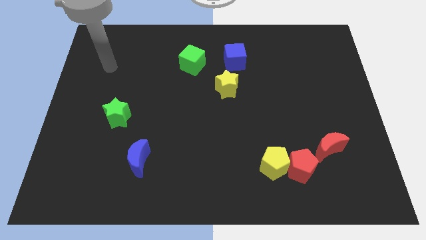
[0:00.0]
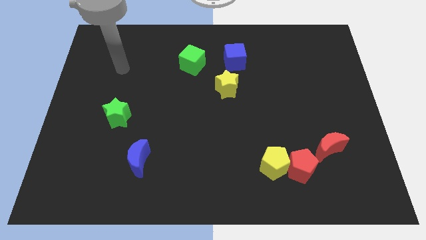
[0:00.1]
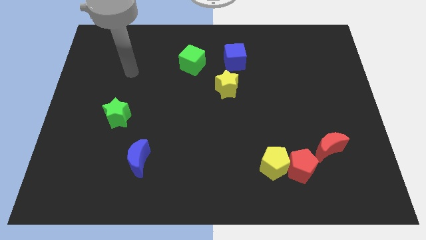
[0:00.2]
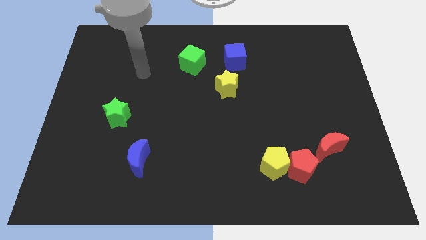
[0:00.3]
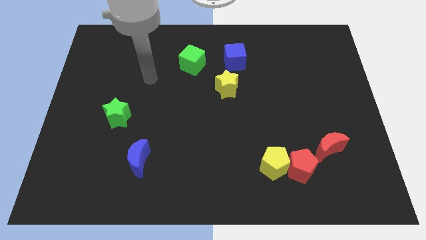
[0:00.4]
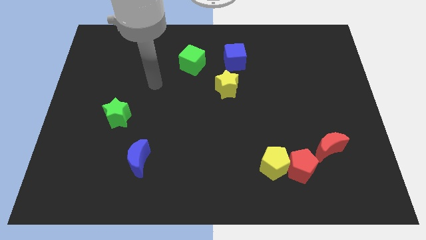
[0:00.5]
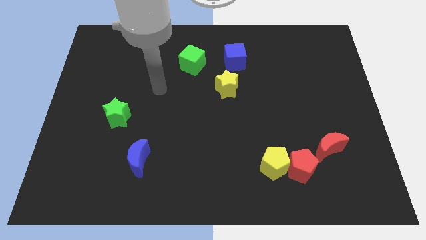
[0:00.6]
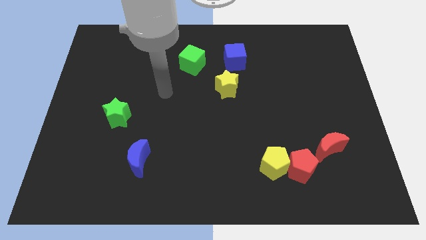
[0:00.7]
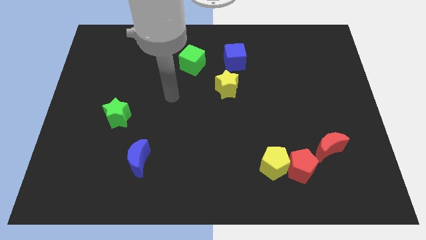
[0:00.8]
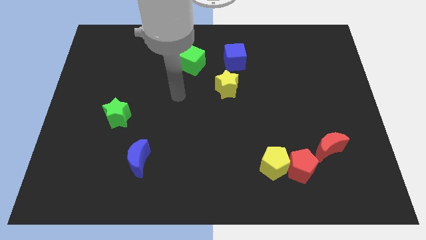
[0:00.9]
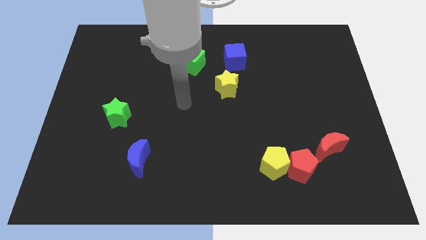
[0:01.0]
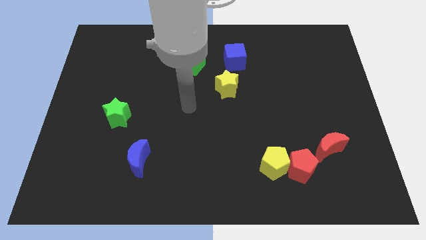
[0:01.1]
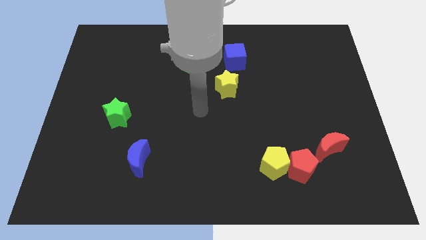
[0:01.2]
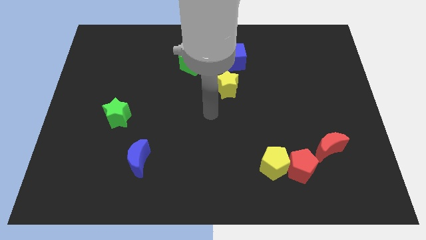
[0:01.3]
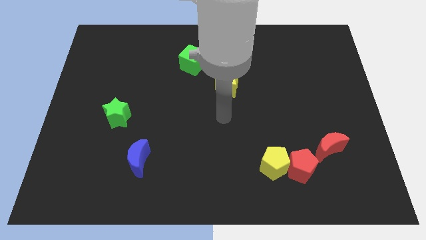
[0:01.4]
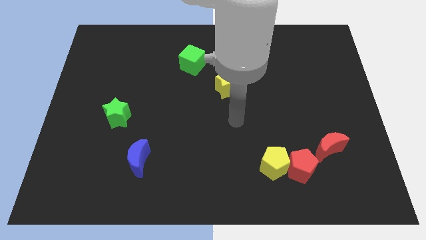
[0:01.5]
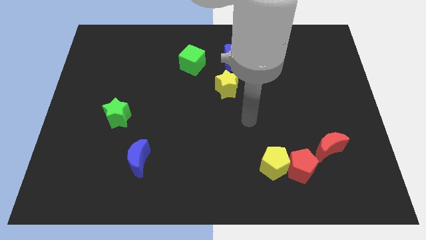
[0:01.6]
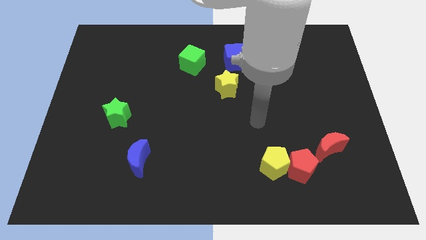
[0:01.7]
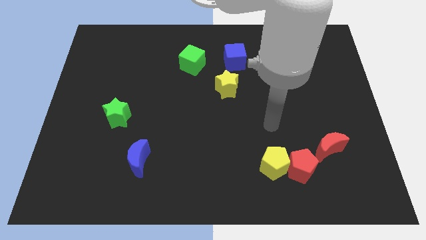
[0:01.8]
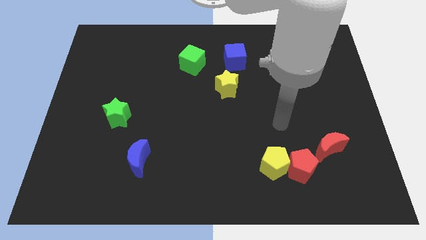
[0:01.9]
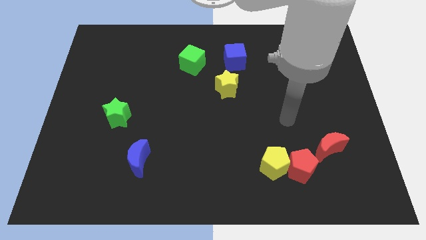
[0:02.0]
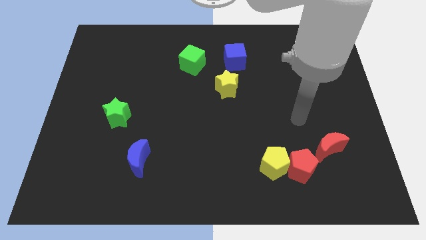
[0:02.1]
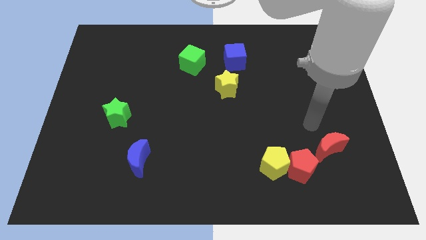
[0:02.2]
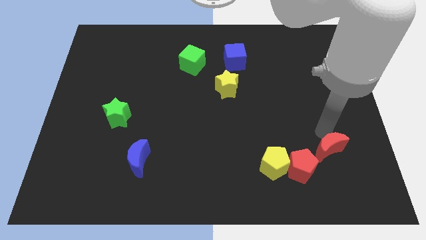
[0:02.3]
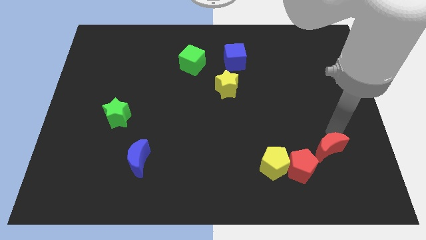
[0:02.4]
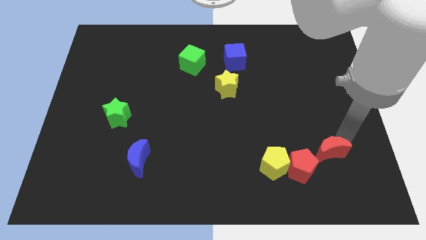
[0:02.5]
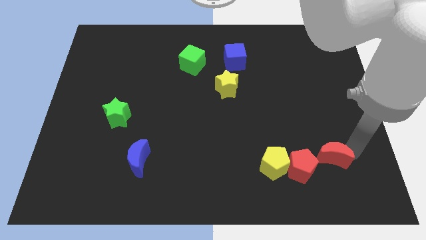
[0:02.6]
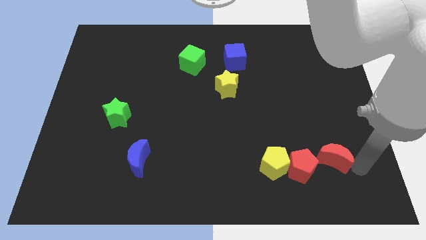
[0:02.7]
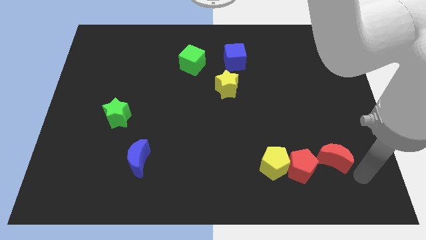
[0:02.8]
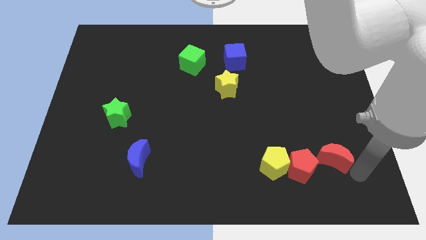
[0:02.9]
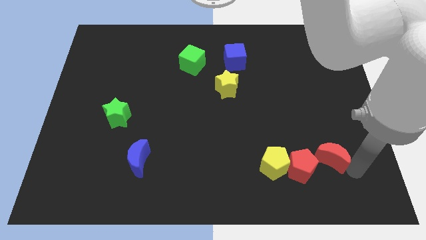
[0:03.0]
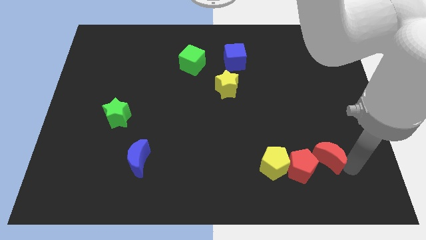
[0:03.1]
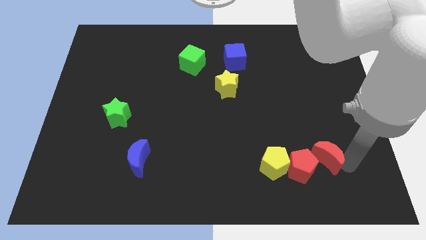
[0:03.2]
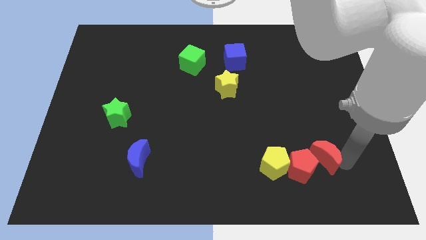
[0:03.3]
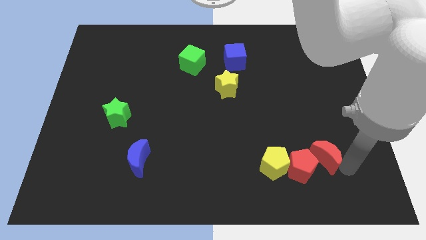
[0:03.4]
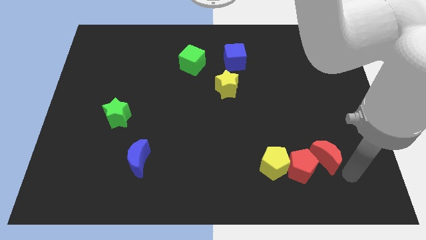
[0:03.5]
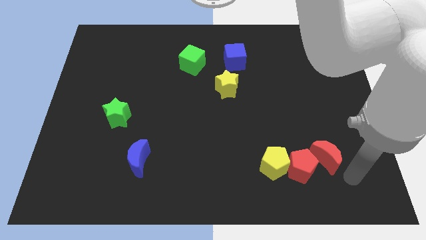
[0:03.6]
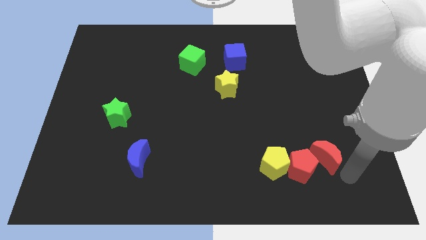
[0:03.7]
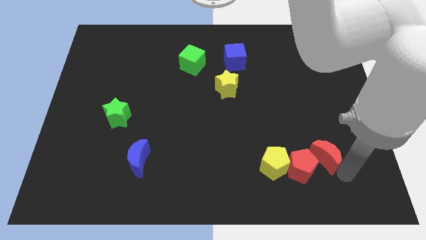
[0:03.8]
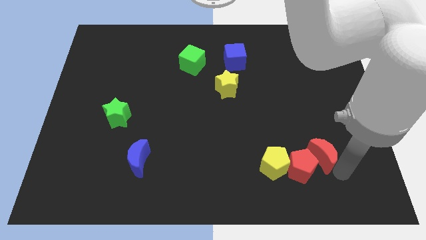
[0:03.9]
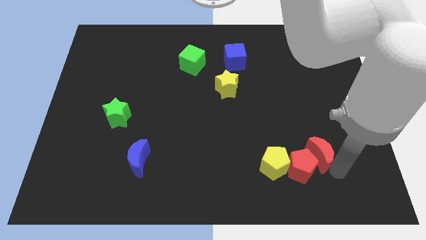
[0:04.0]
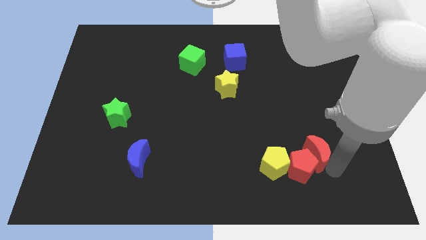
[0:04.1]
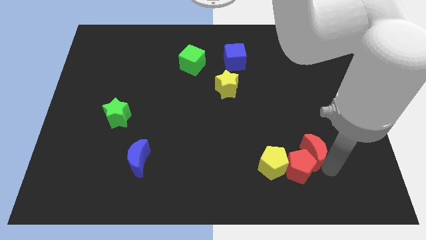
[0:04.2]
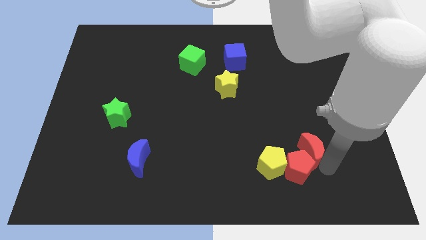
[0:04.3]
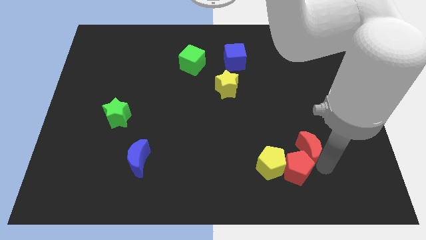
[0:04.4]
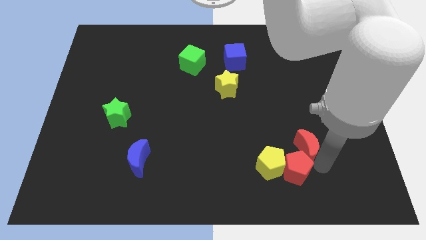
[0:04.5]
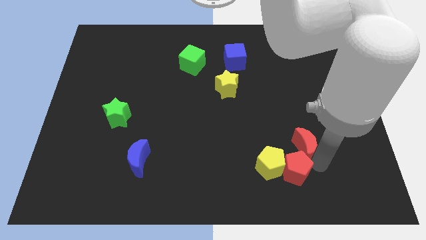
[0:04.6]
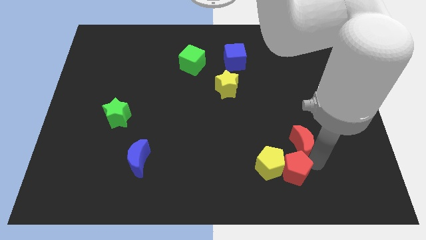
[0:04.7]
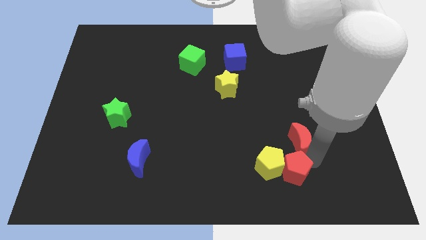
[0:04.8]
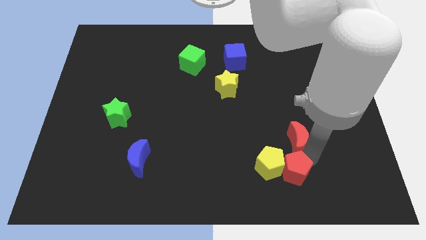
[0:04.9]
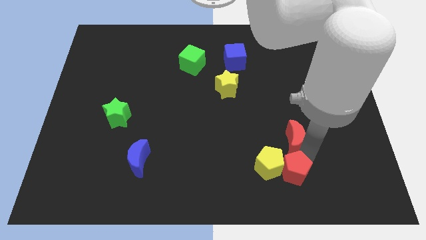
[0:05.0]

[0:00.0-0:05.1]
move the red moon a little bit left

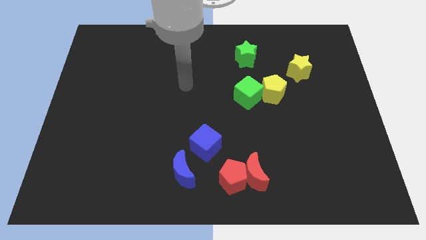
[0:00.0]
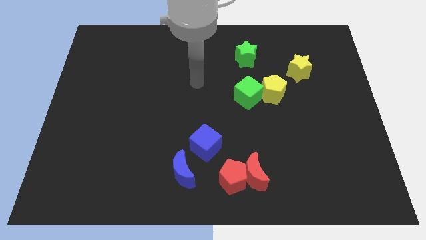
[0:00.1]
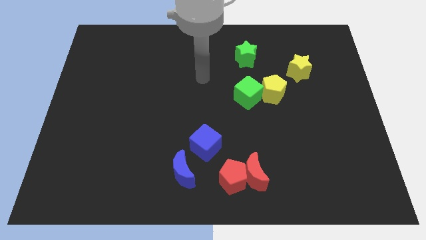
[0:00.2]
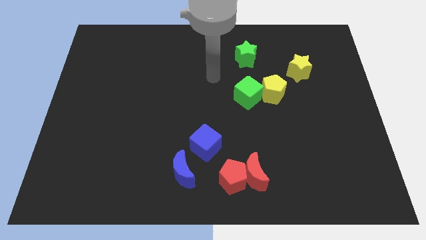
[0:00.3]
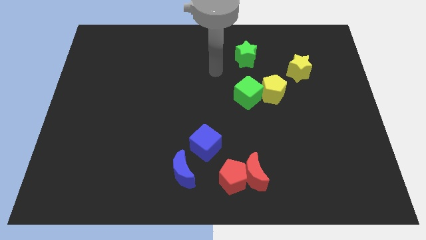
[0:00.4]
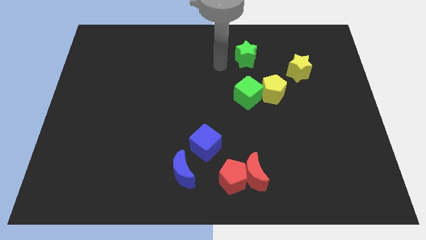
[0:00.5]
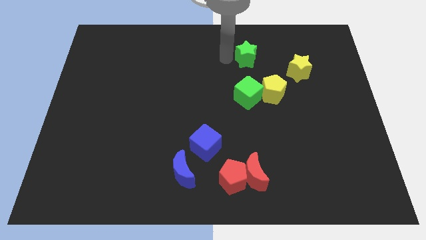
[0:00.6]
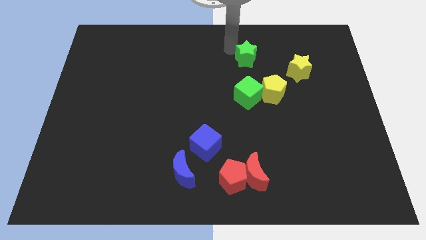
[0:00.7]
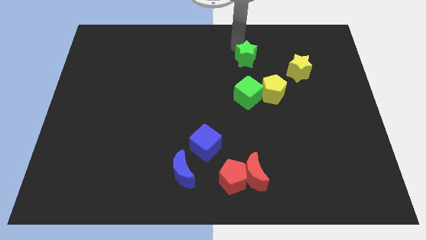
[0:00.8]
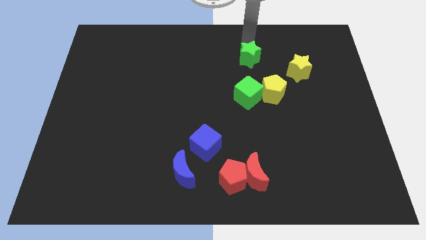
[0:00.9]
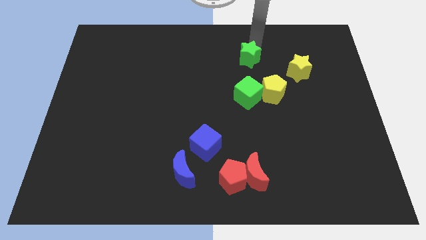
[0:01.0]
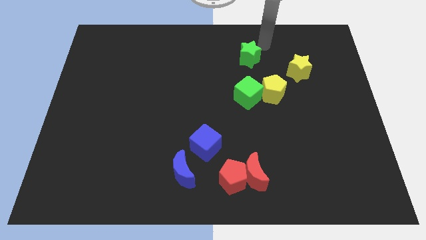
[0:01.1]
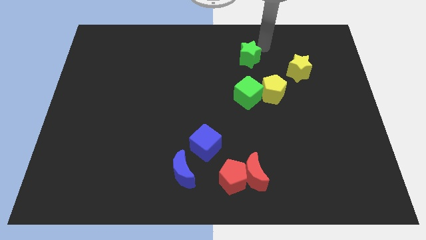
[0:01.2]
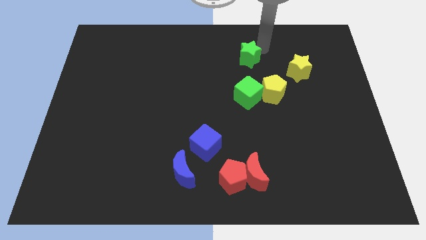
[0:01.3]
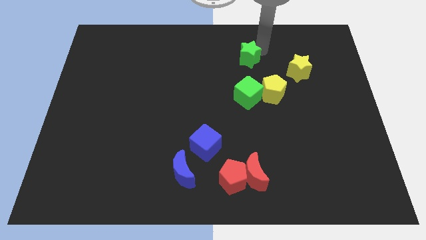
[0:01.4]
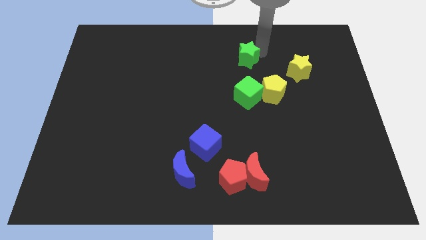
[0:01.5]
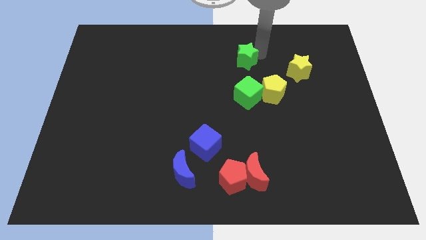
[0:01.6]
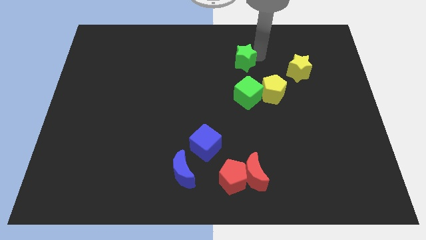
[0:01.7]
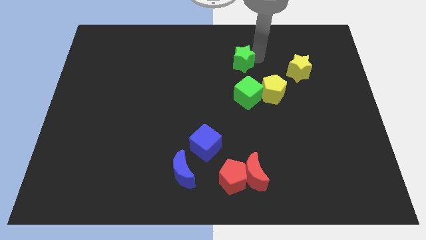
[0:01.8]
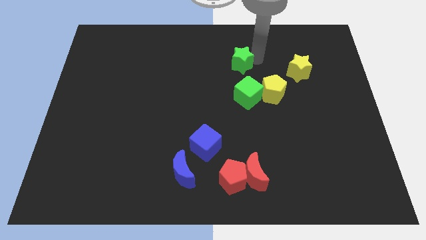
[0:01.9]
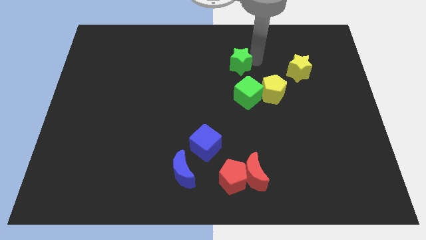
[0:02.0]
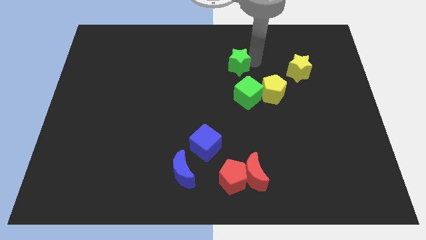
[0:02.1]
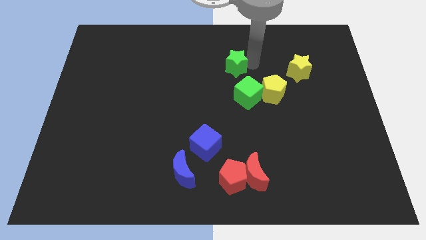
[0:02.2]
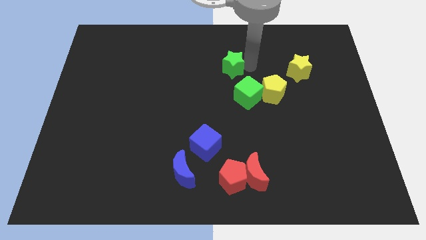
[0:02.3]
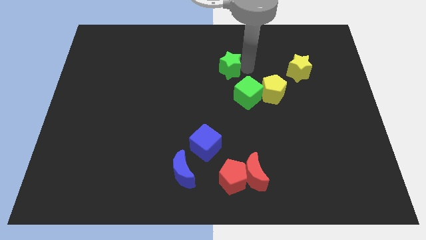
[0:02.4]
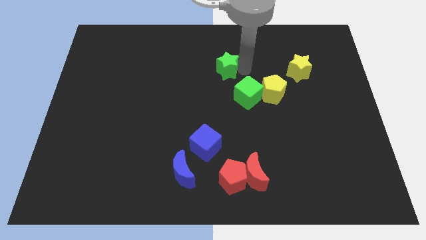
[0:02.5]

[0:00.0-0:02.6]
push the green star a little down and to the left diagonally

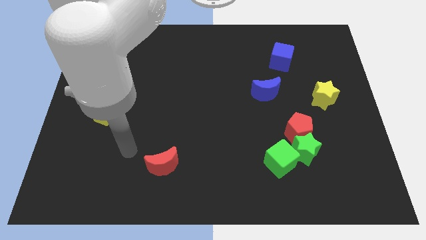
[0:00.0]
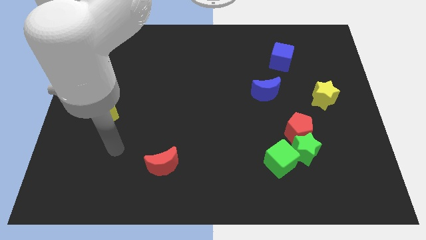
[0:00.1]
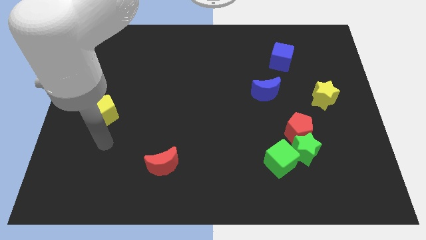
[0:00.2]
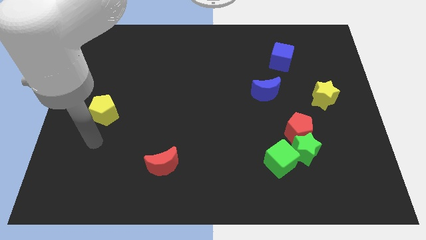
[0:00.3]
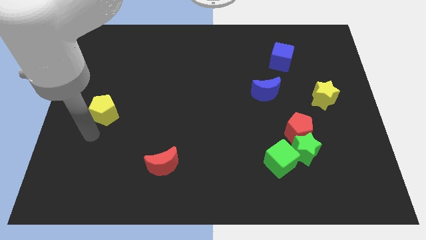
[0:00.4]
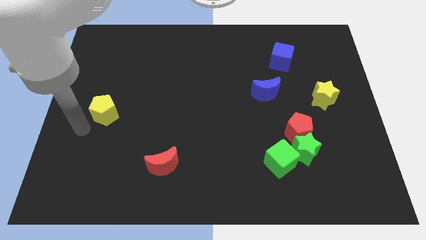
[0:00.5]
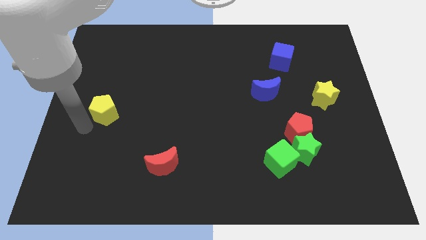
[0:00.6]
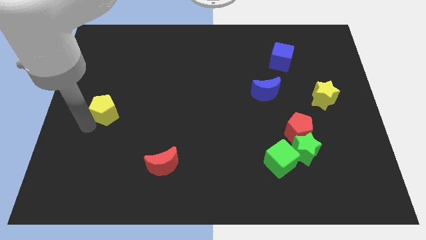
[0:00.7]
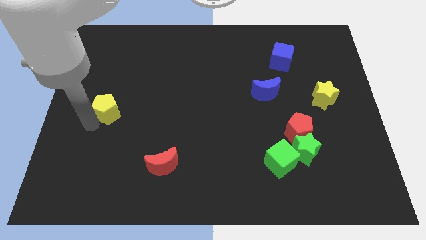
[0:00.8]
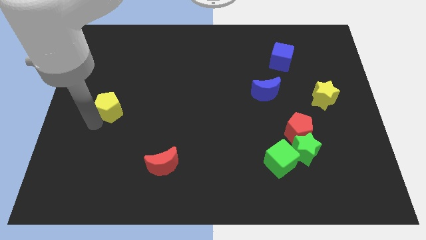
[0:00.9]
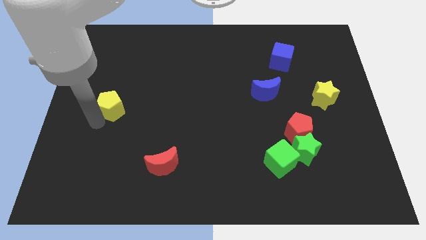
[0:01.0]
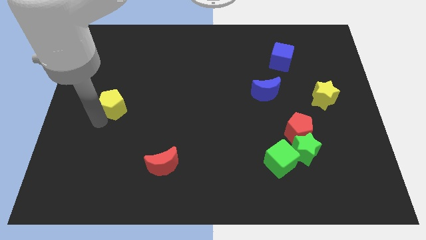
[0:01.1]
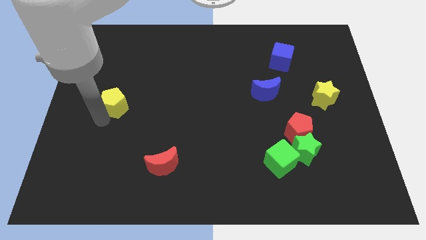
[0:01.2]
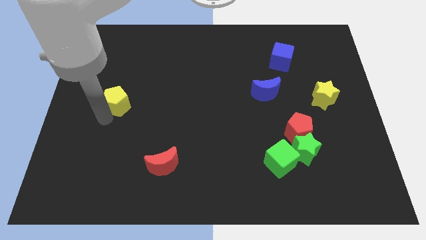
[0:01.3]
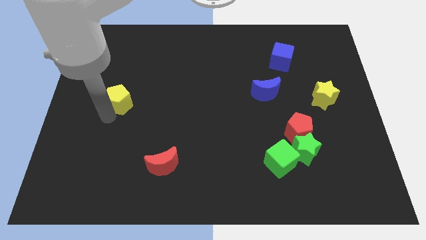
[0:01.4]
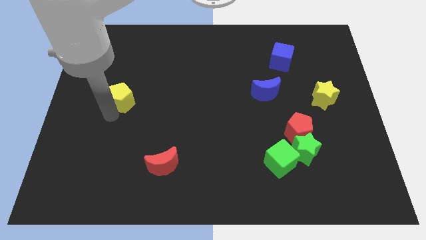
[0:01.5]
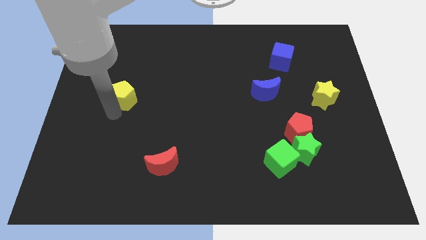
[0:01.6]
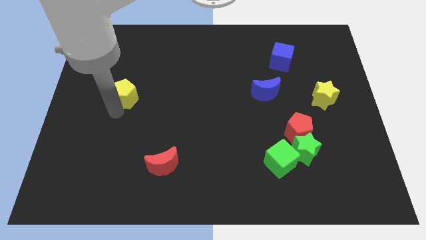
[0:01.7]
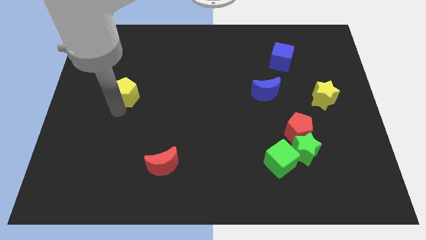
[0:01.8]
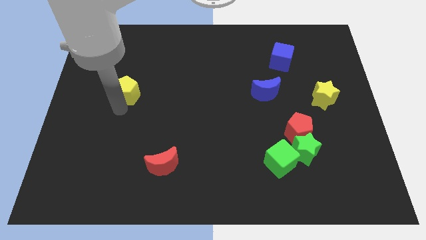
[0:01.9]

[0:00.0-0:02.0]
push the yellow pentagon a little bit upwards and then right
